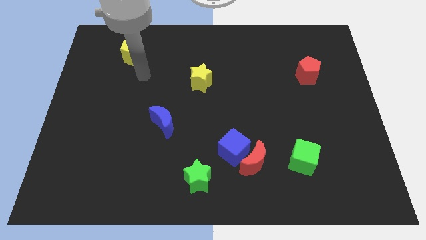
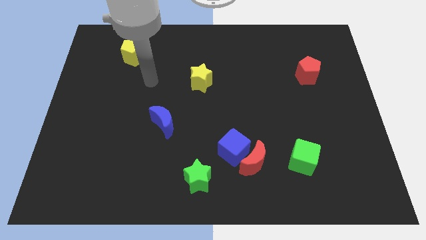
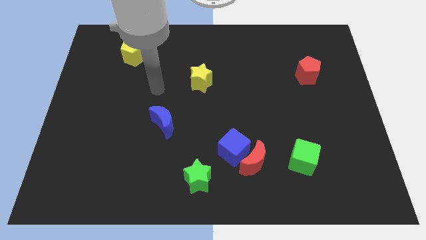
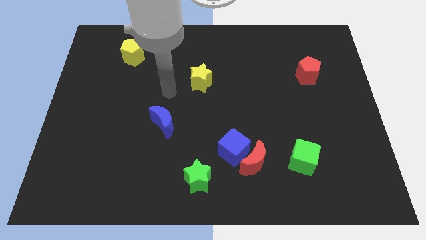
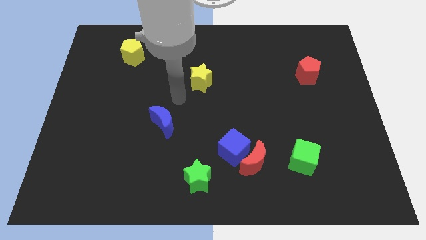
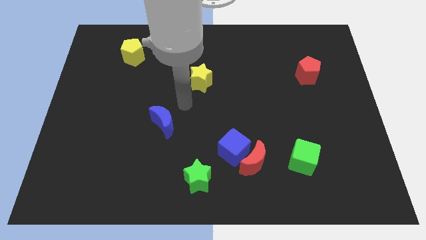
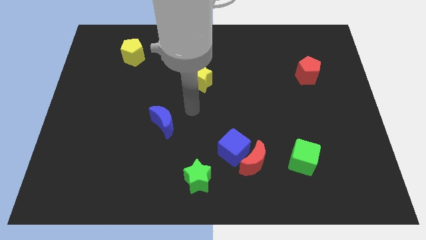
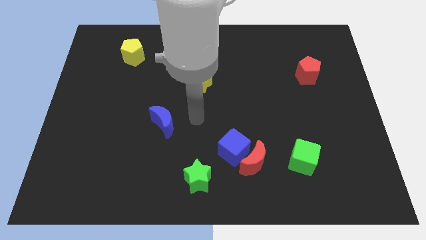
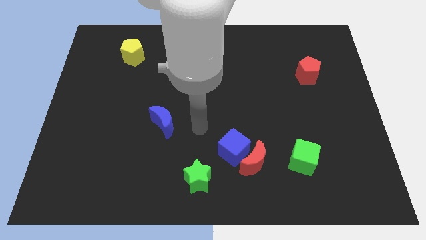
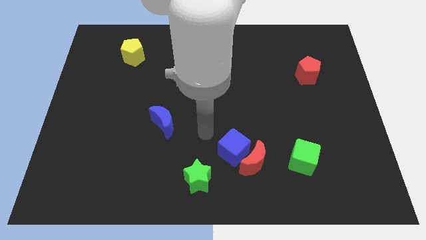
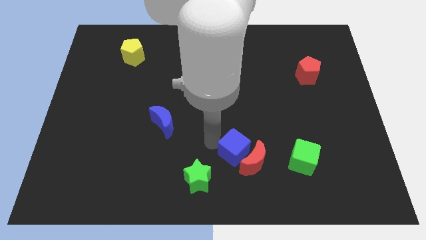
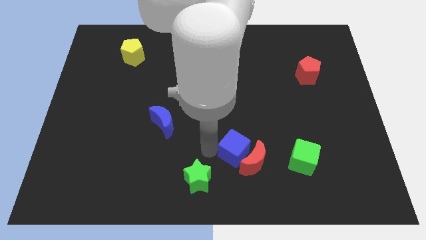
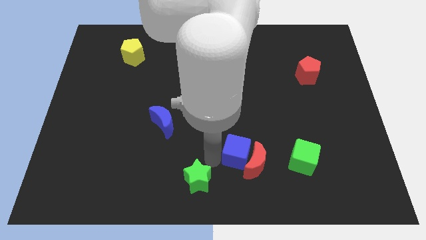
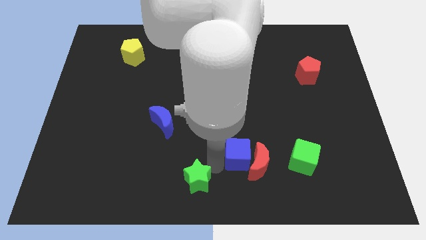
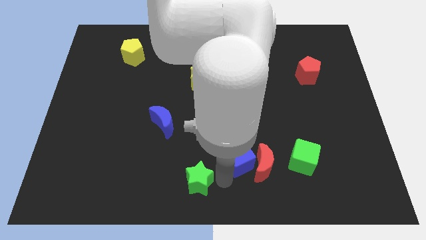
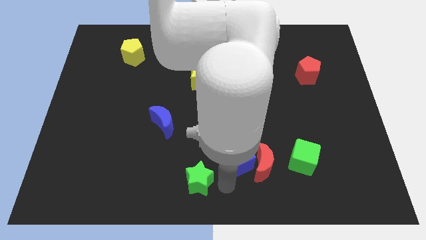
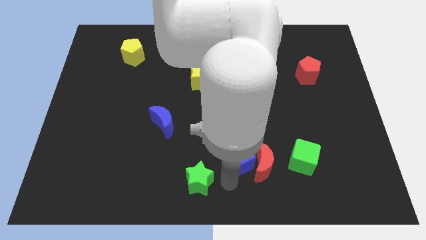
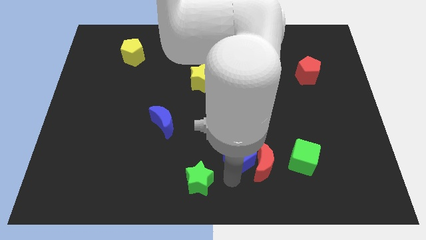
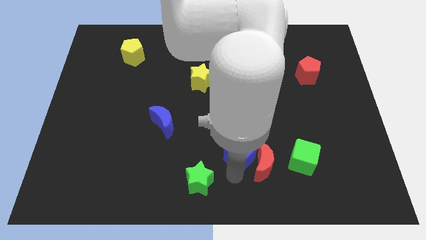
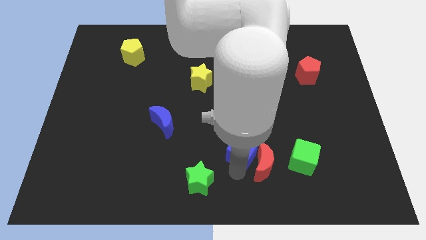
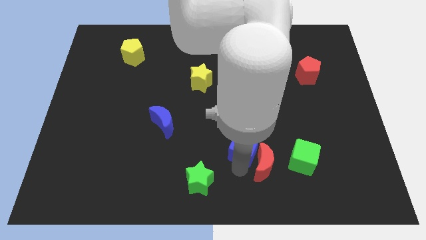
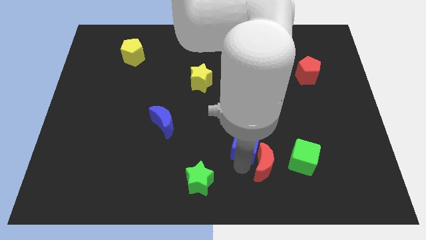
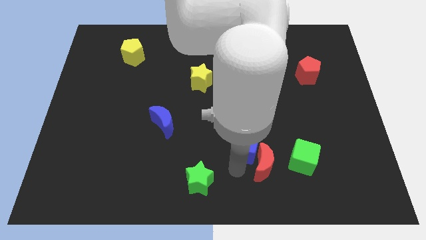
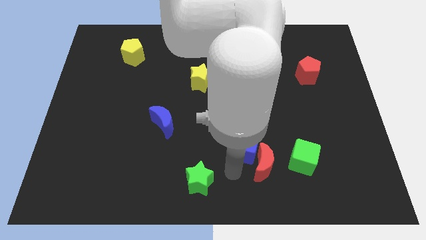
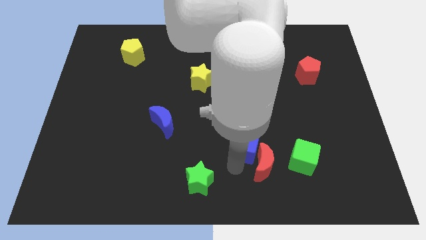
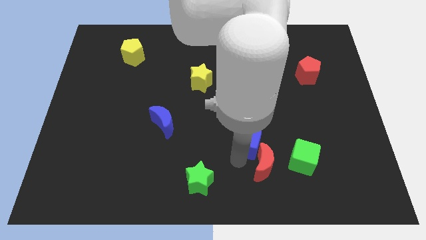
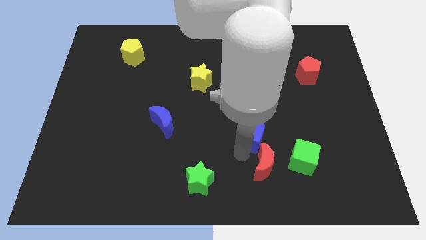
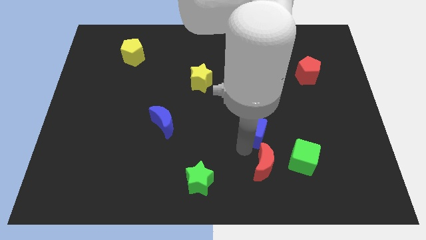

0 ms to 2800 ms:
pull the blue cube apart from the red moon and green star

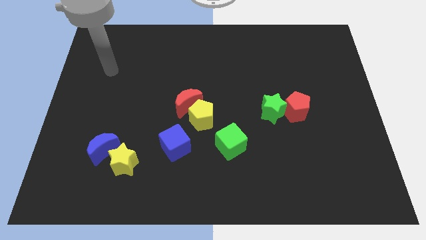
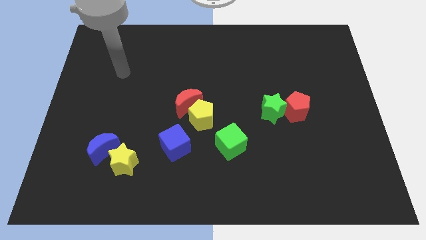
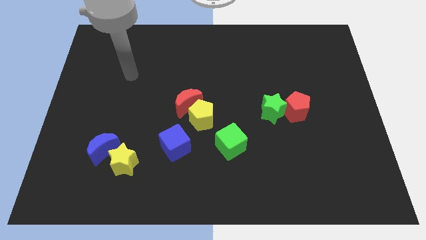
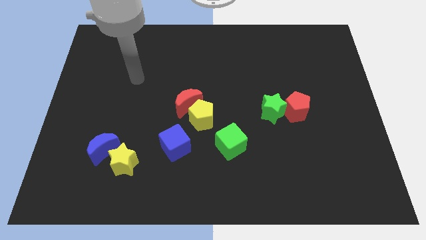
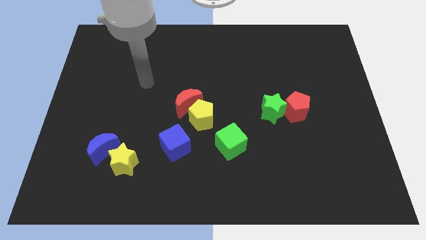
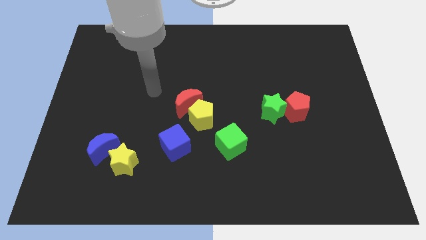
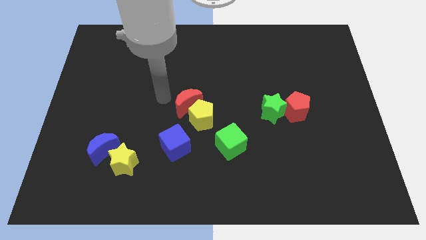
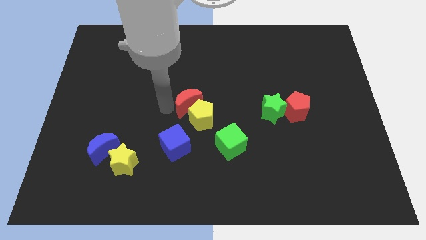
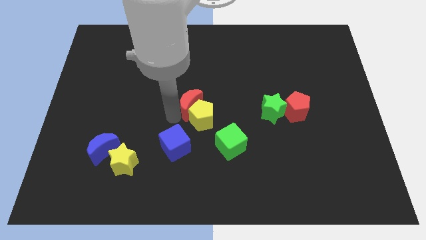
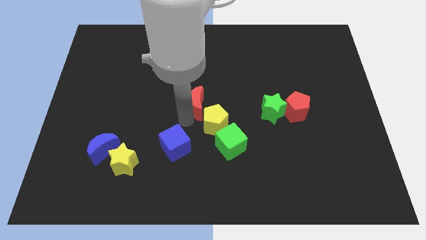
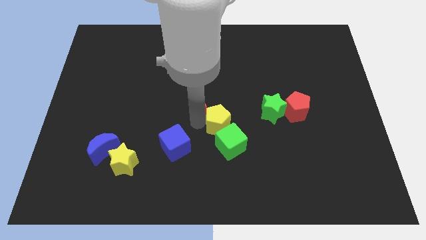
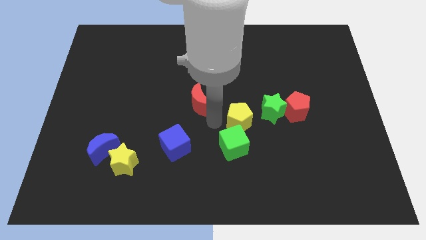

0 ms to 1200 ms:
separate the red moon from the yellow pentagon

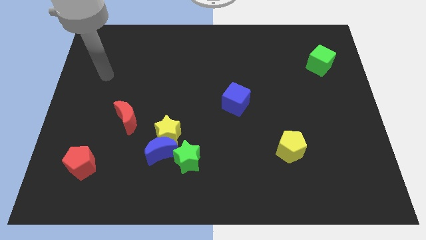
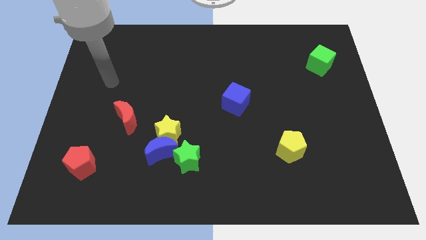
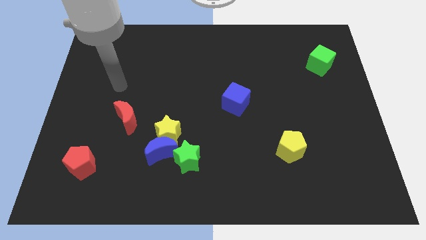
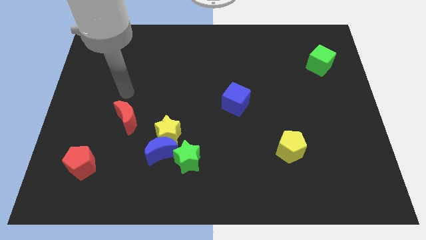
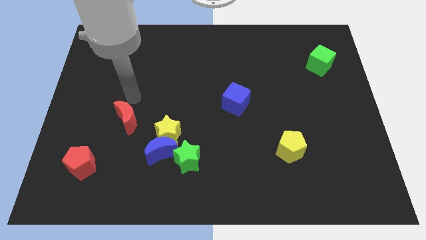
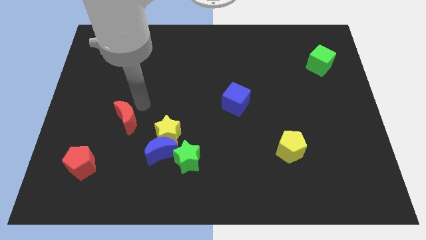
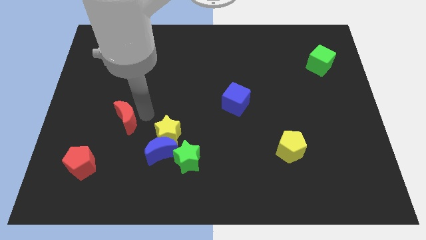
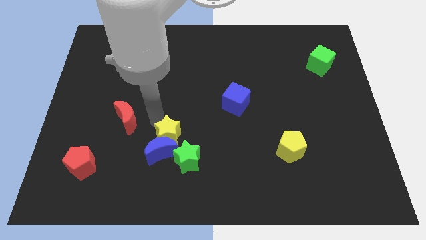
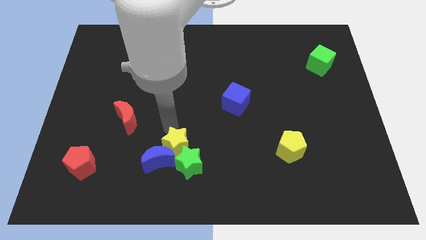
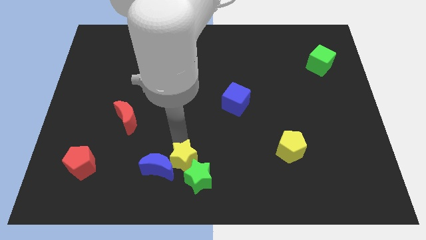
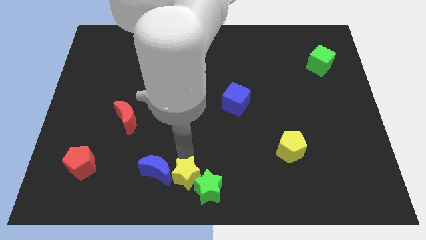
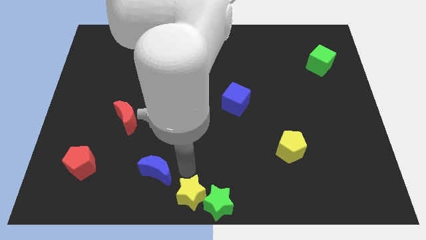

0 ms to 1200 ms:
pull the blue moon apart from the yellow star and green star

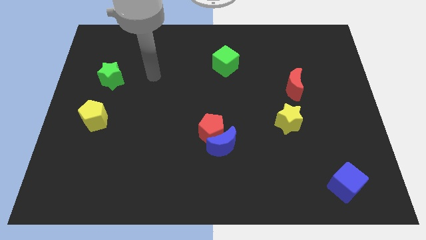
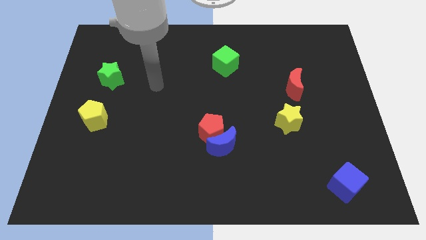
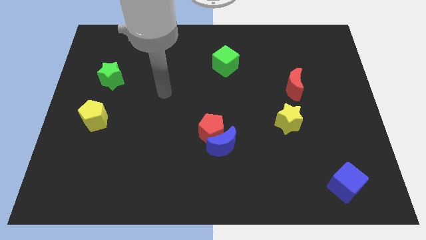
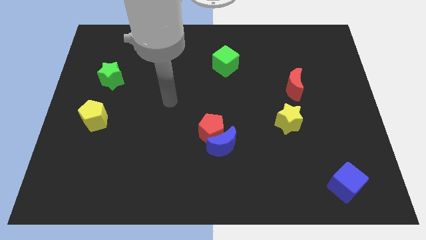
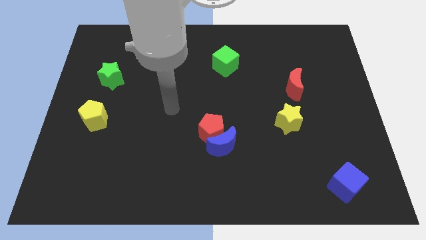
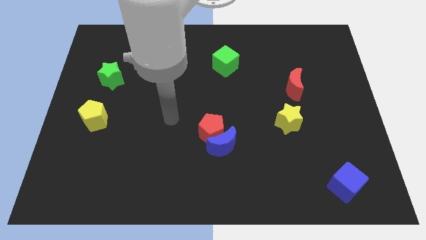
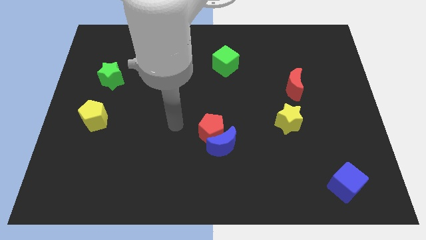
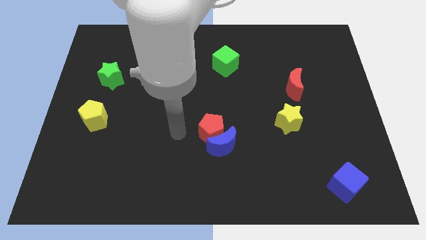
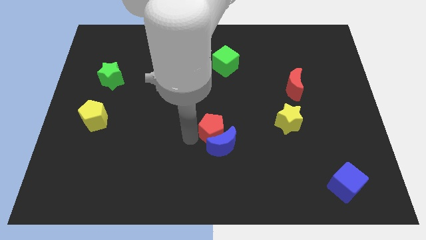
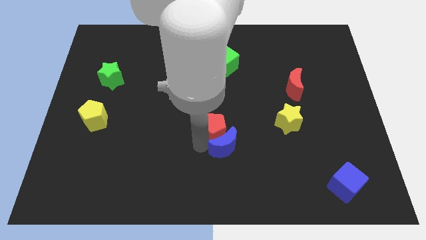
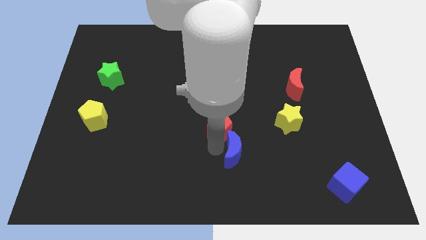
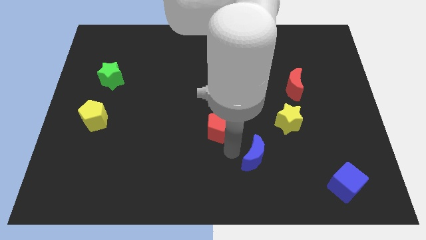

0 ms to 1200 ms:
move the red pentagon away from the blue moon

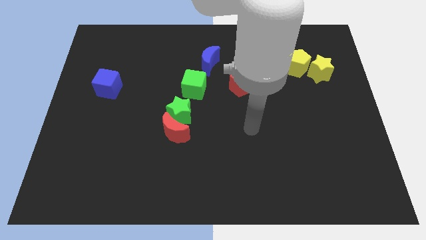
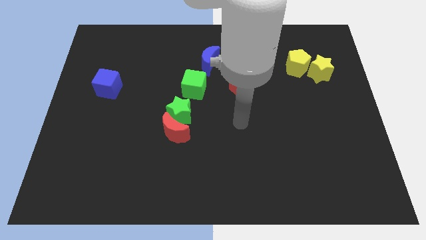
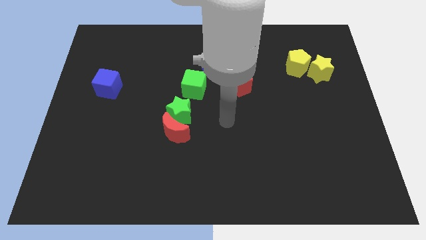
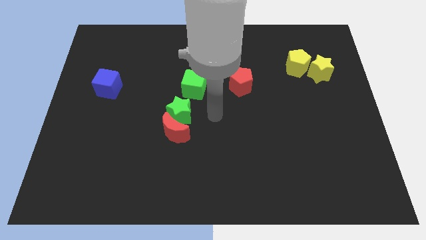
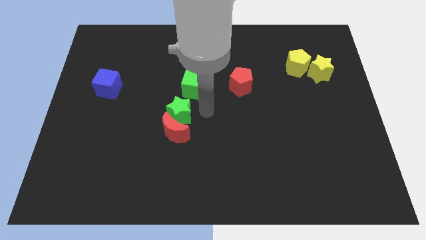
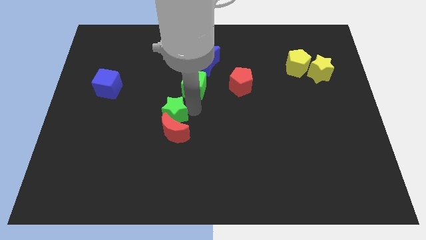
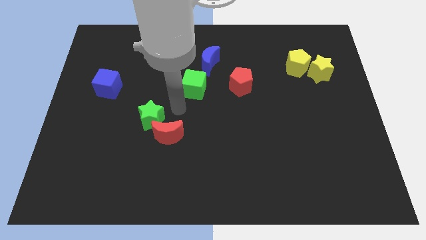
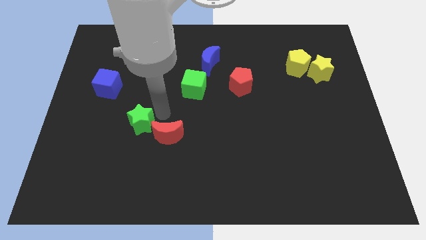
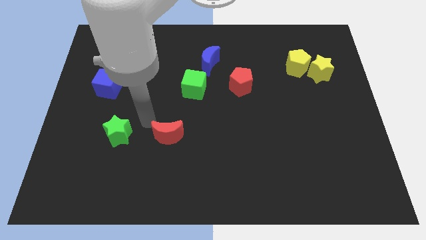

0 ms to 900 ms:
separate the red moon from the green star

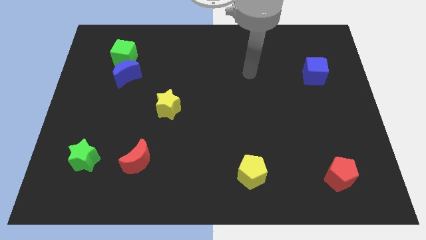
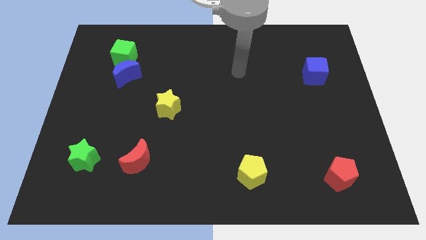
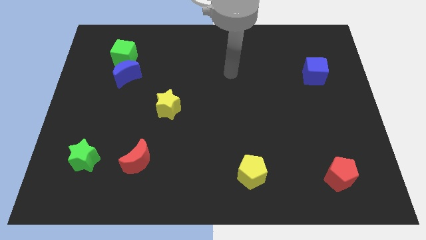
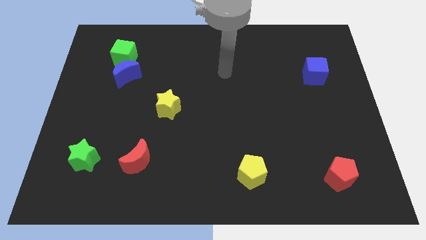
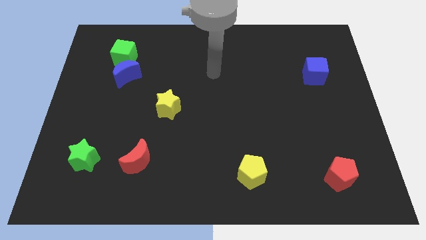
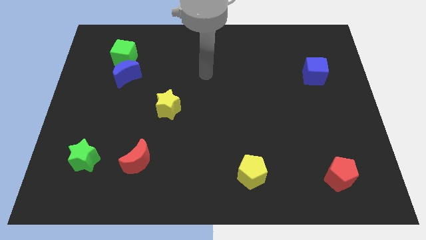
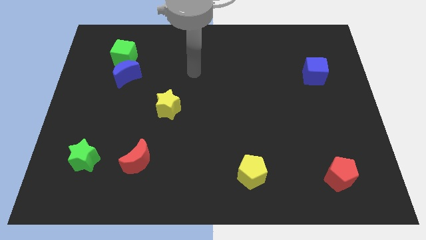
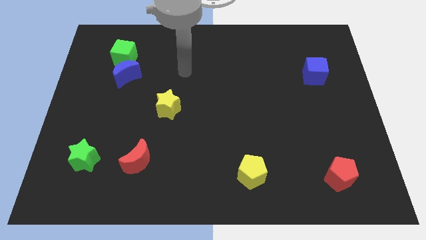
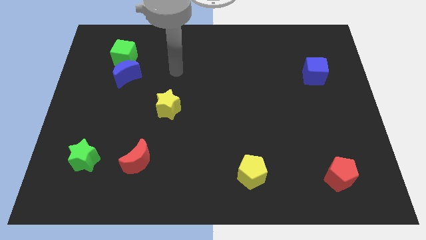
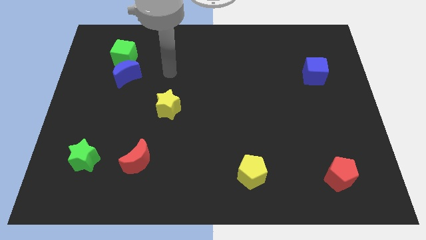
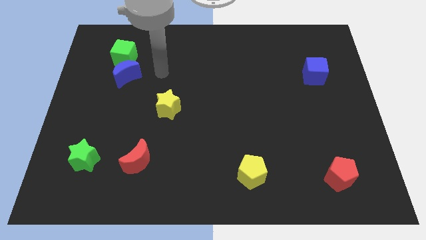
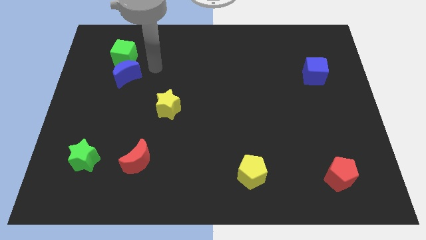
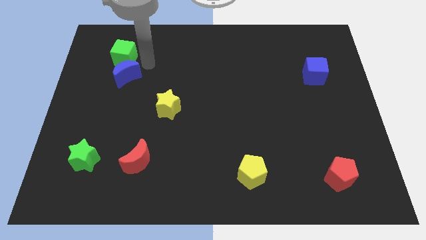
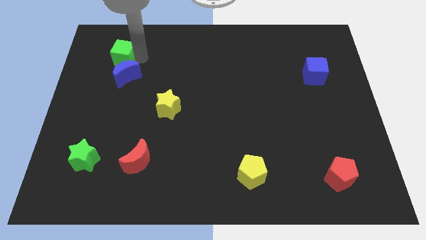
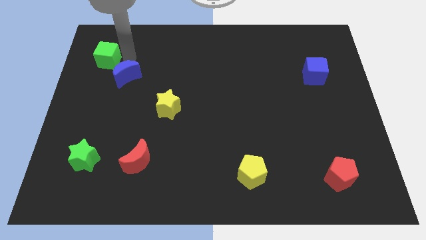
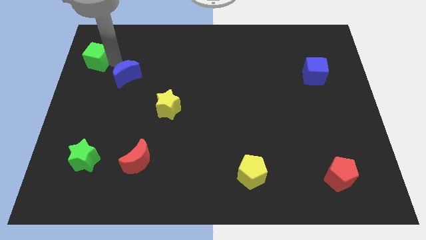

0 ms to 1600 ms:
separate the blue moon from the green cube

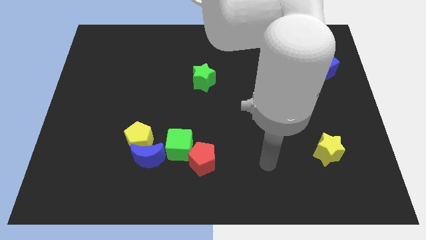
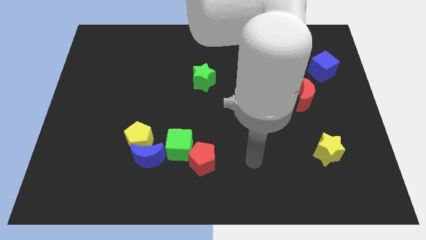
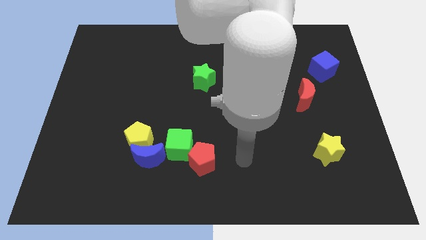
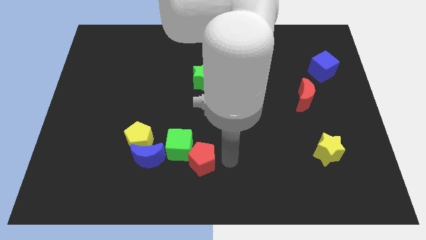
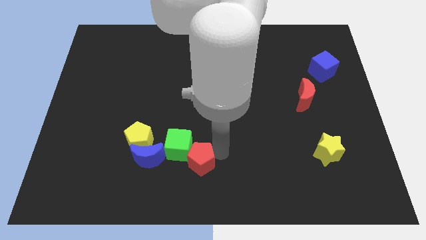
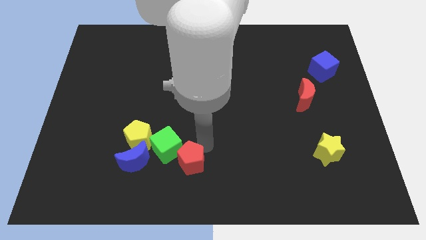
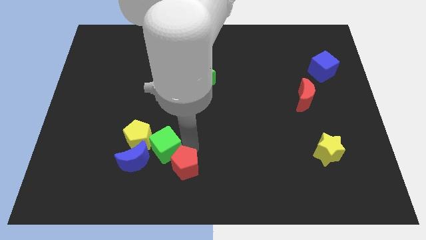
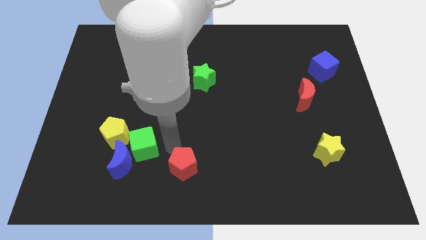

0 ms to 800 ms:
separate the red pentagon from the green cube
